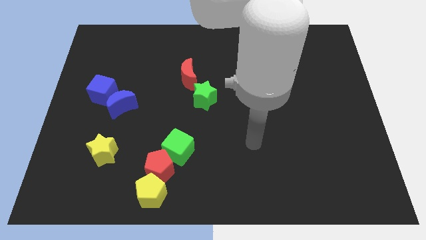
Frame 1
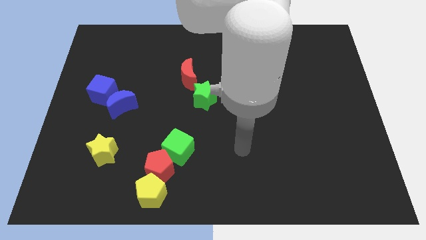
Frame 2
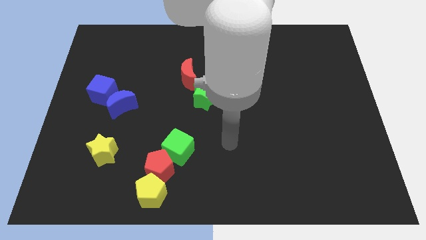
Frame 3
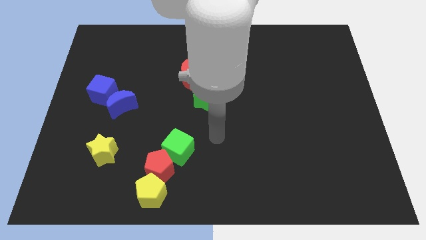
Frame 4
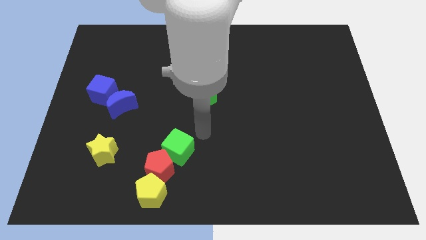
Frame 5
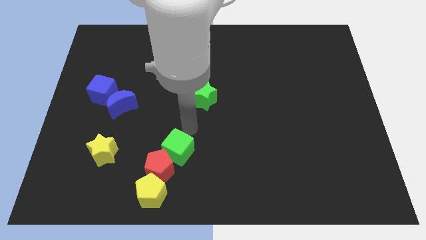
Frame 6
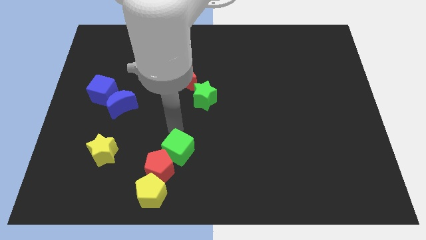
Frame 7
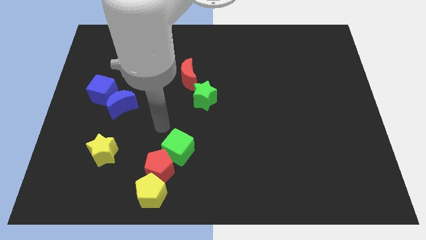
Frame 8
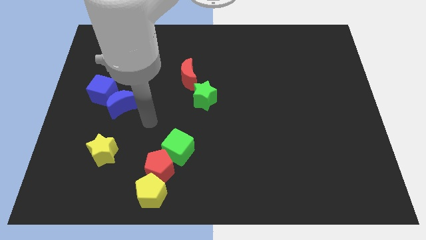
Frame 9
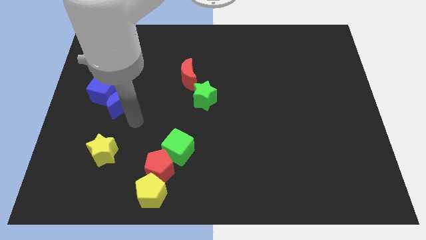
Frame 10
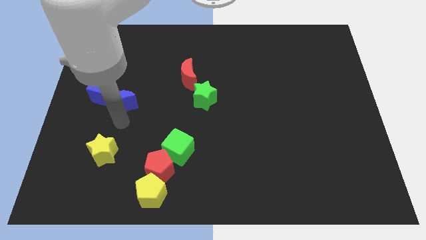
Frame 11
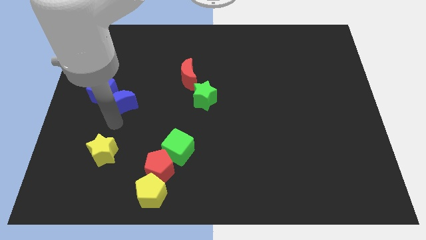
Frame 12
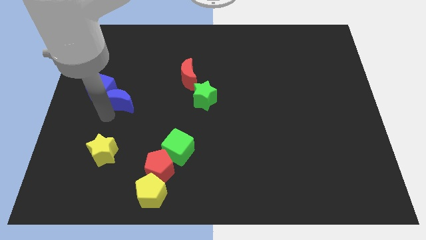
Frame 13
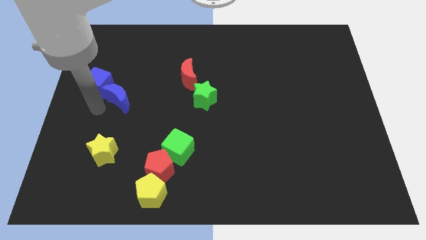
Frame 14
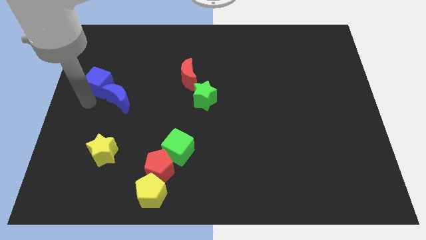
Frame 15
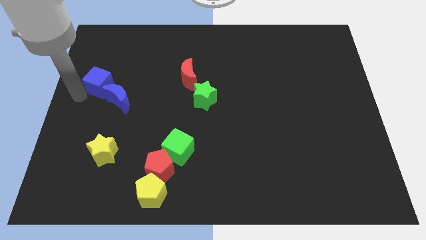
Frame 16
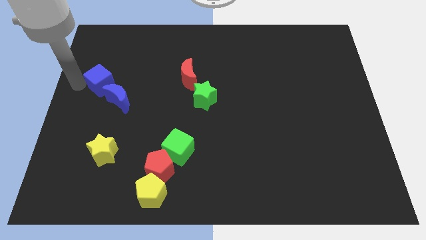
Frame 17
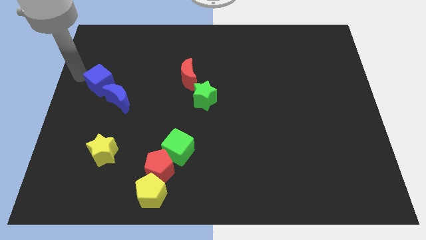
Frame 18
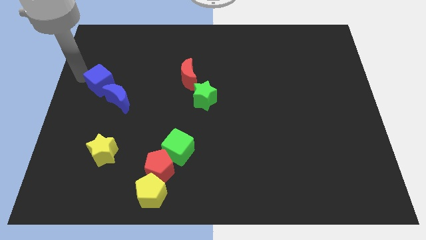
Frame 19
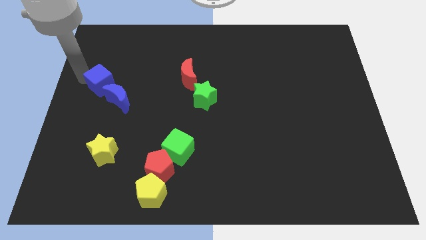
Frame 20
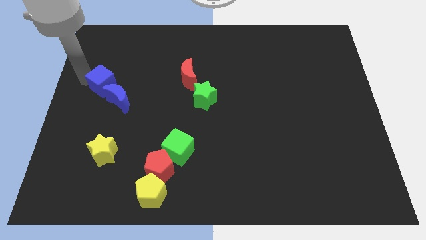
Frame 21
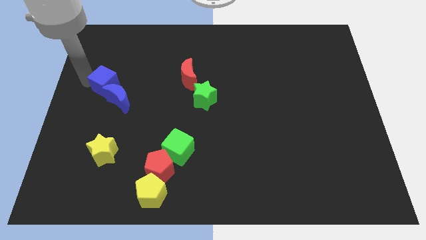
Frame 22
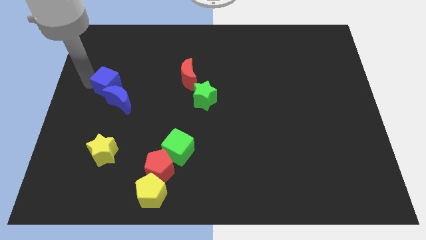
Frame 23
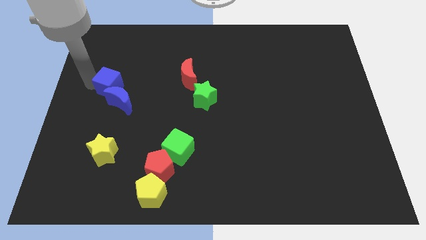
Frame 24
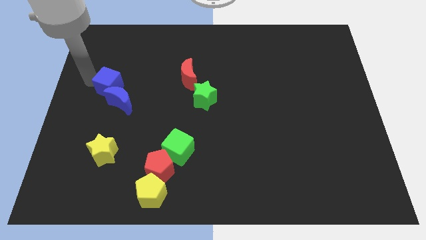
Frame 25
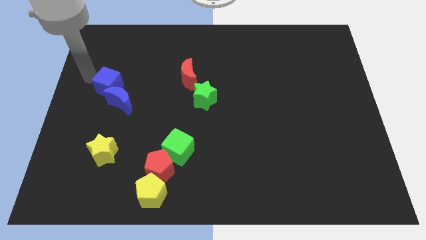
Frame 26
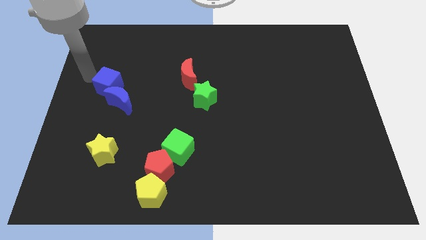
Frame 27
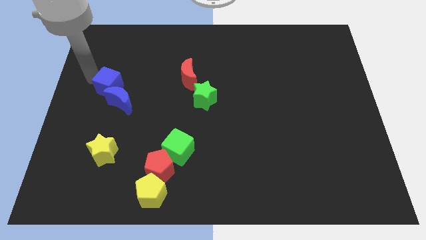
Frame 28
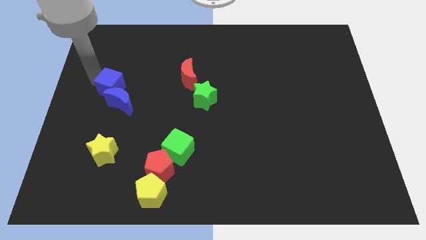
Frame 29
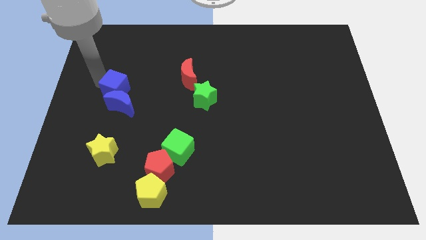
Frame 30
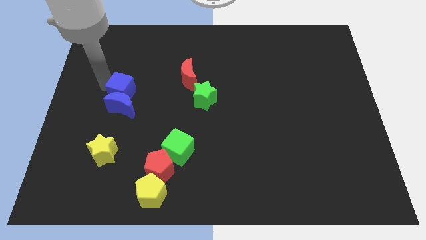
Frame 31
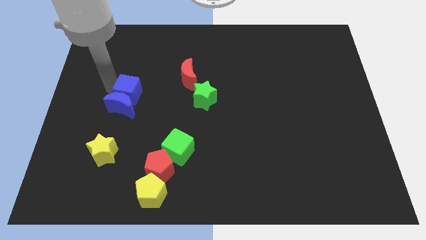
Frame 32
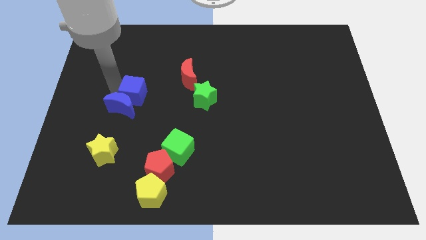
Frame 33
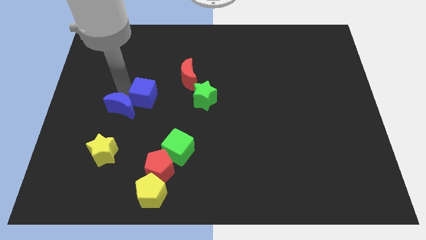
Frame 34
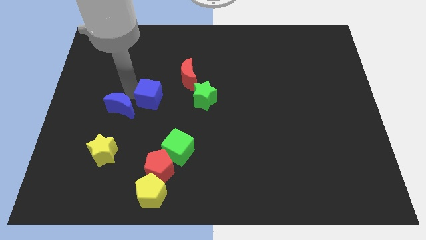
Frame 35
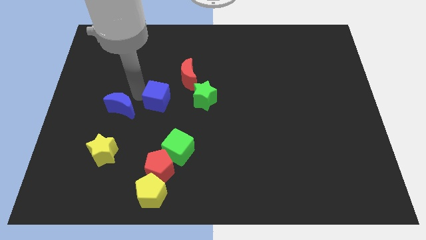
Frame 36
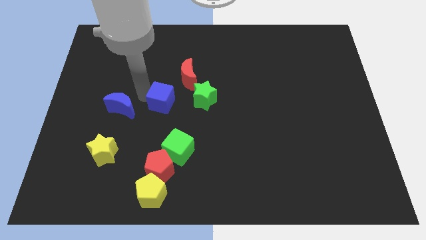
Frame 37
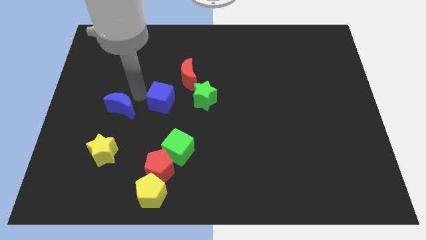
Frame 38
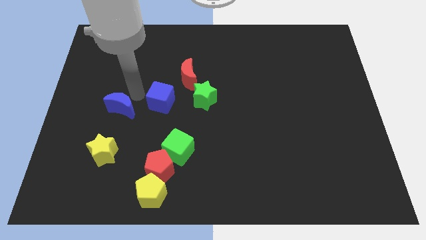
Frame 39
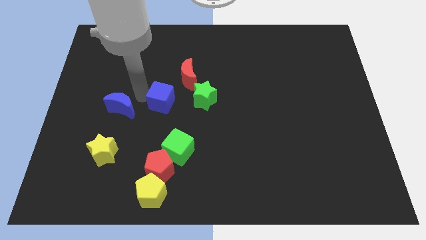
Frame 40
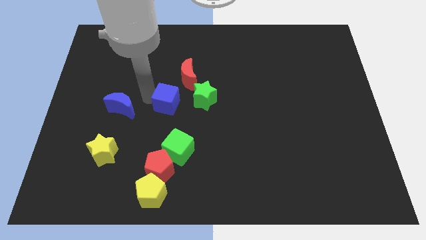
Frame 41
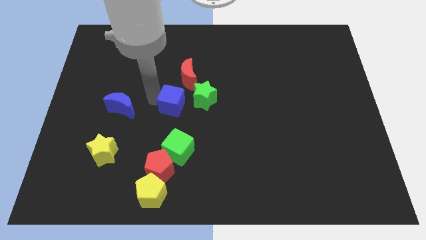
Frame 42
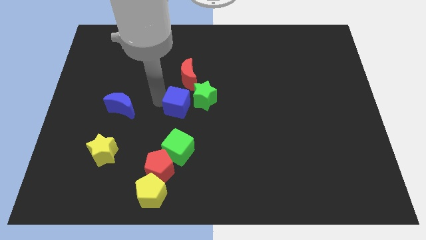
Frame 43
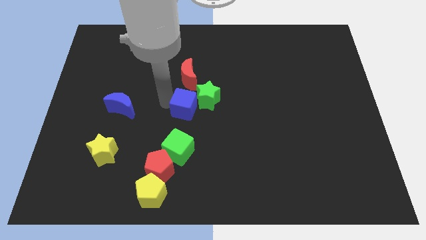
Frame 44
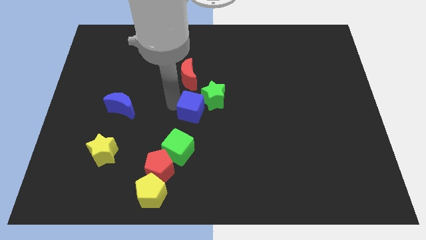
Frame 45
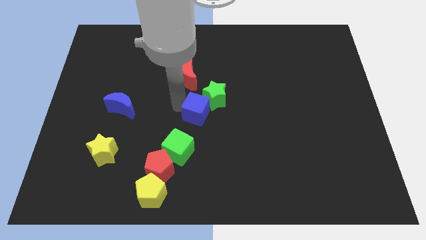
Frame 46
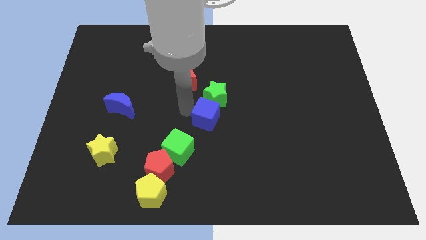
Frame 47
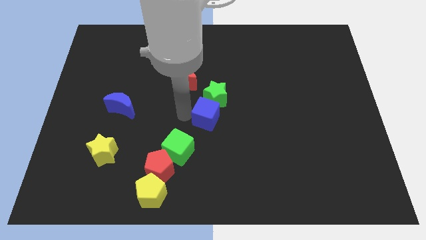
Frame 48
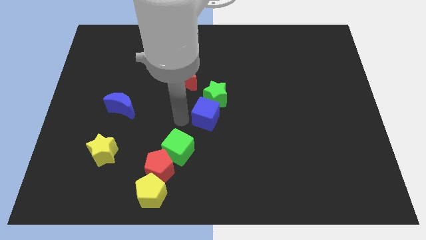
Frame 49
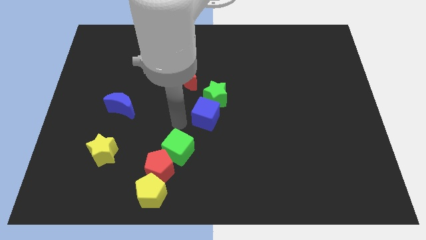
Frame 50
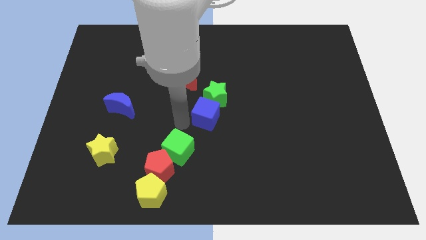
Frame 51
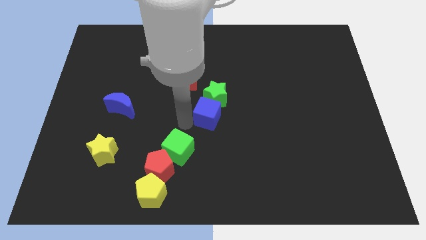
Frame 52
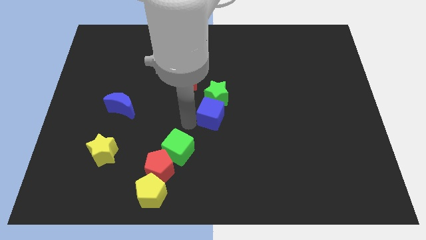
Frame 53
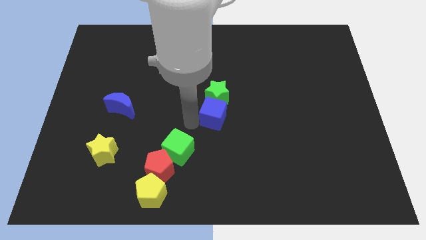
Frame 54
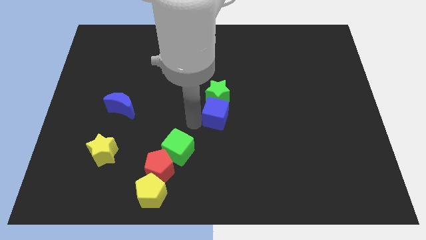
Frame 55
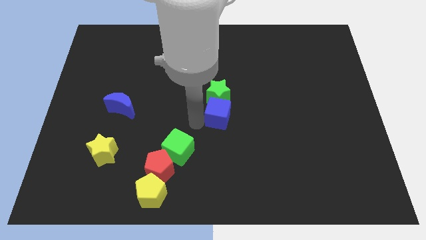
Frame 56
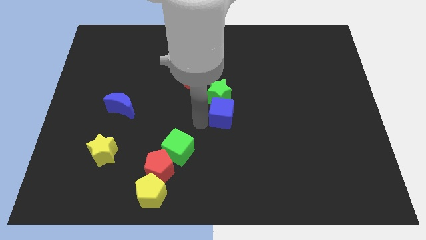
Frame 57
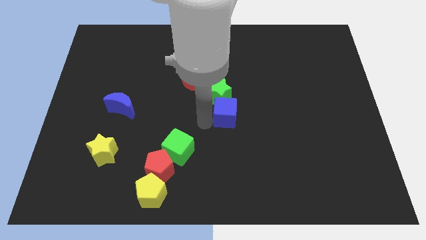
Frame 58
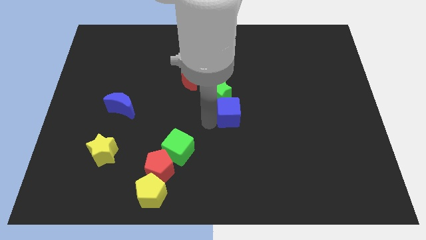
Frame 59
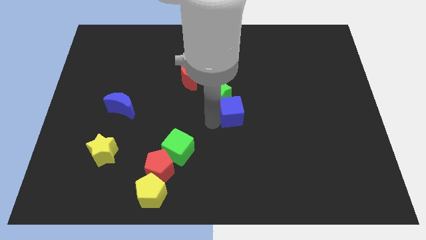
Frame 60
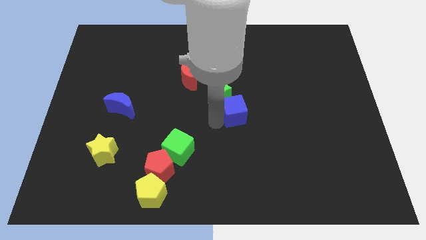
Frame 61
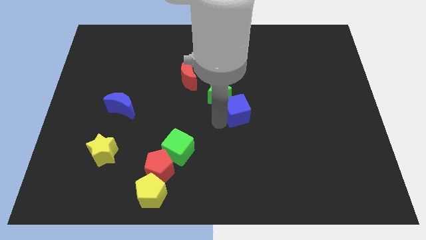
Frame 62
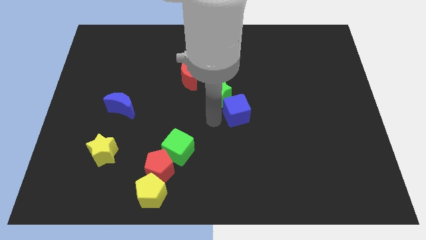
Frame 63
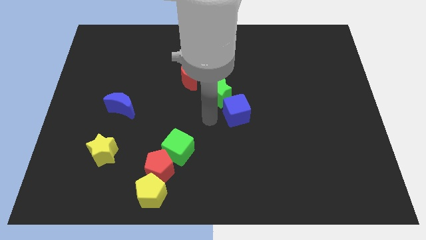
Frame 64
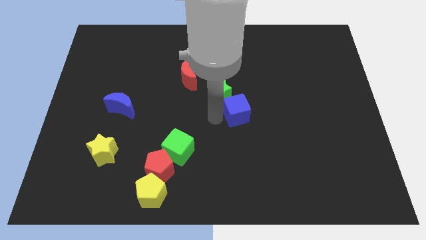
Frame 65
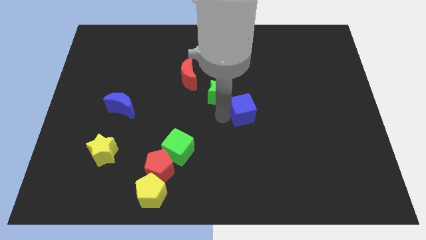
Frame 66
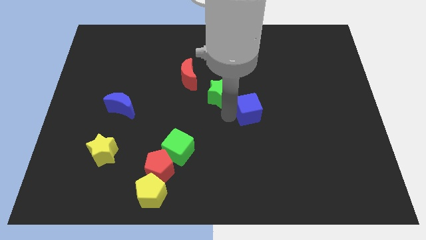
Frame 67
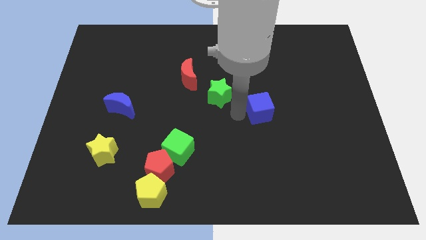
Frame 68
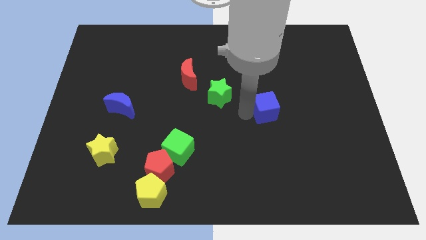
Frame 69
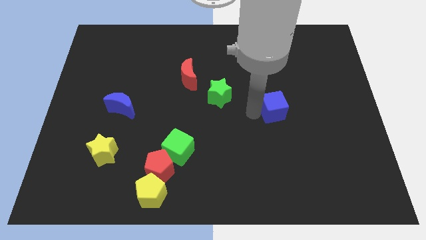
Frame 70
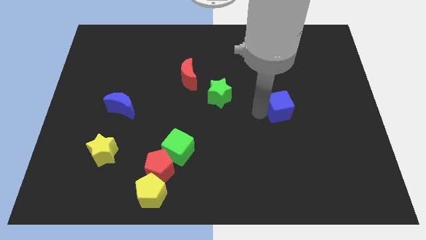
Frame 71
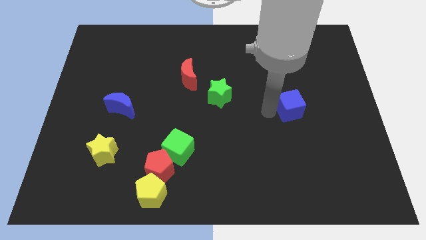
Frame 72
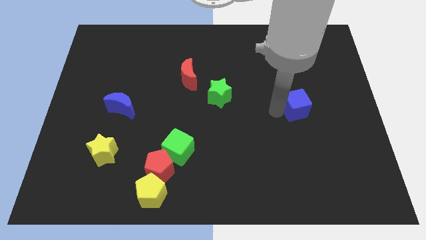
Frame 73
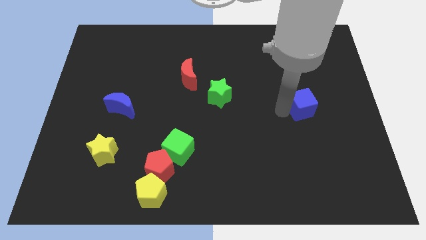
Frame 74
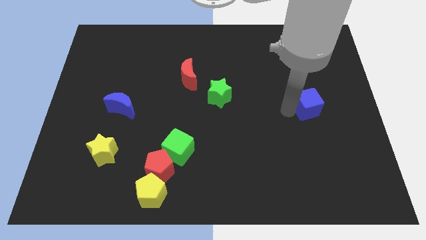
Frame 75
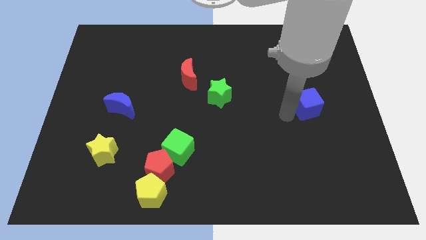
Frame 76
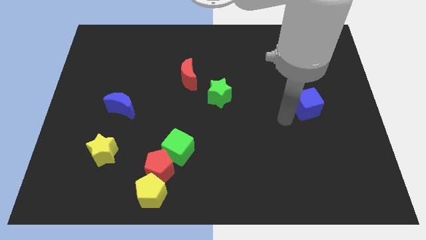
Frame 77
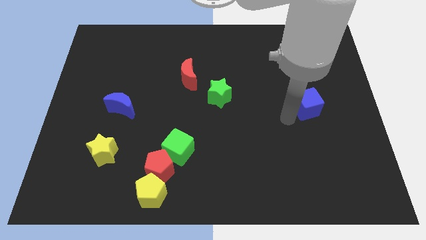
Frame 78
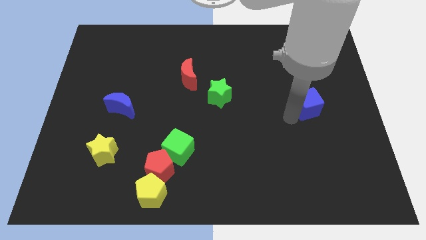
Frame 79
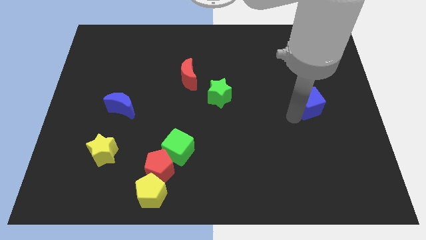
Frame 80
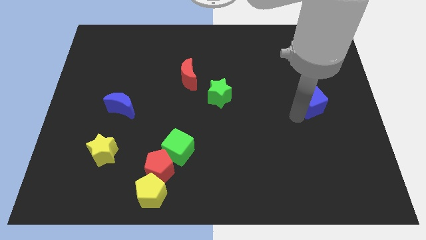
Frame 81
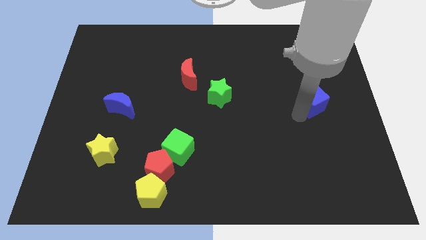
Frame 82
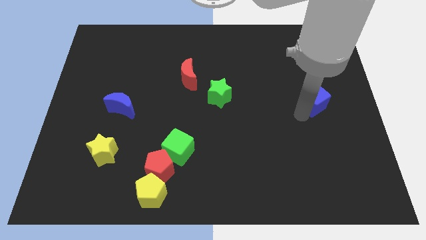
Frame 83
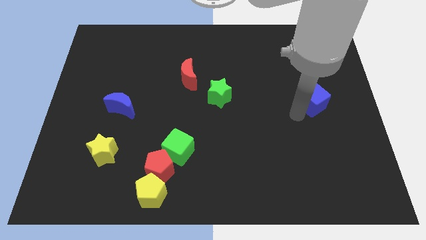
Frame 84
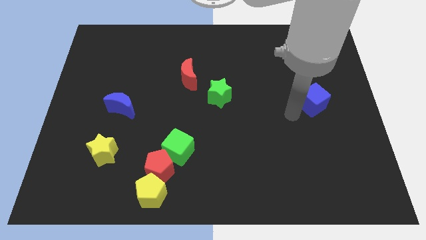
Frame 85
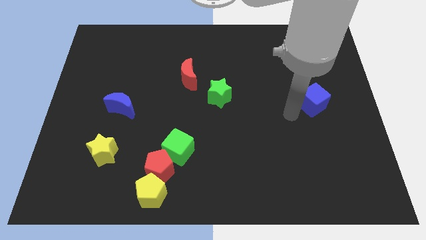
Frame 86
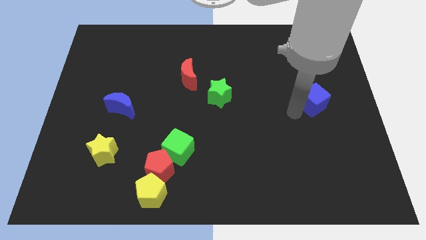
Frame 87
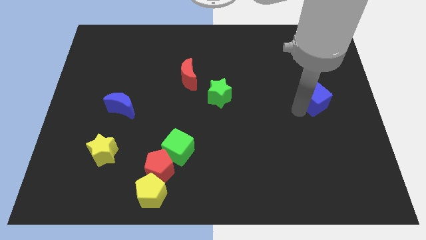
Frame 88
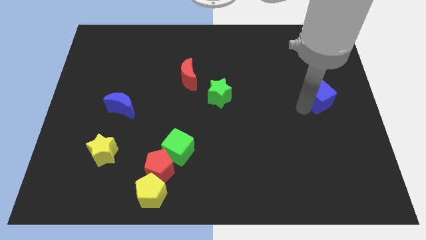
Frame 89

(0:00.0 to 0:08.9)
push the blue cube to the center right
